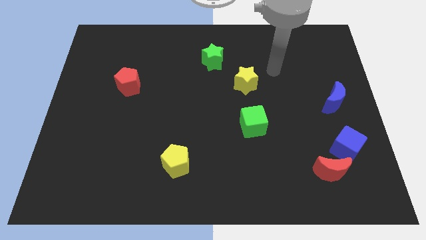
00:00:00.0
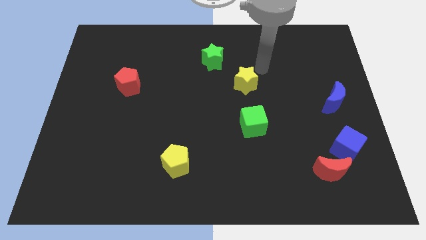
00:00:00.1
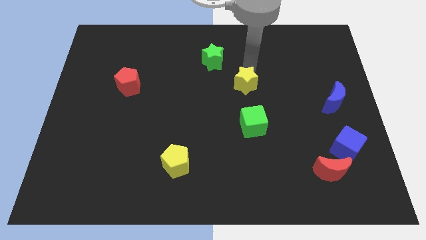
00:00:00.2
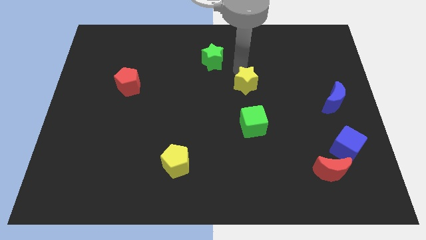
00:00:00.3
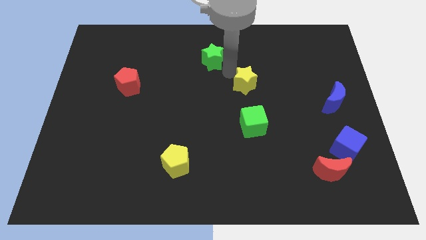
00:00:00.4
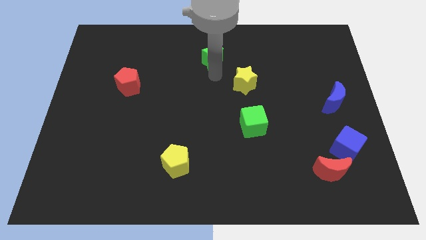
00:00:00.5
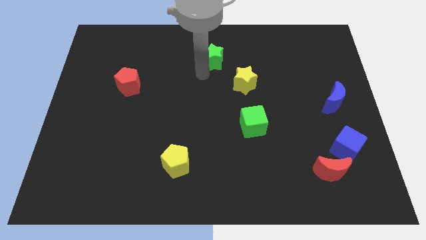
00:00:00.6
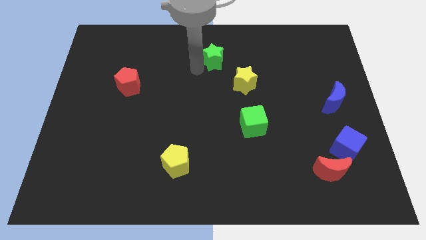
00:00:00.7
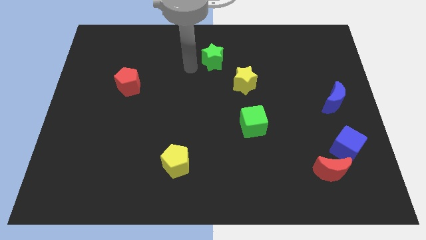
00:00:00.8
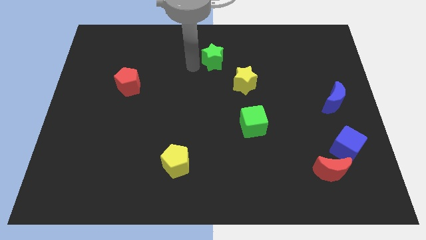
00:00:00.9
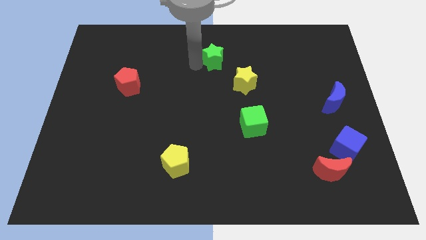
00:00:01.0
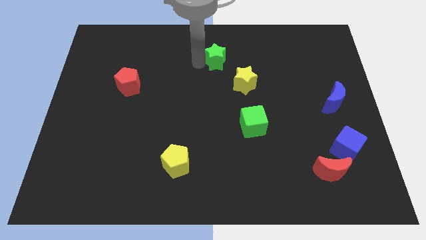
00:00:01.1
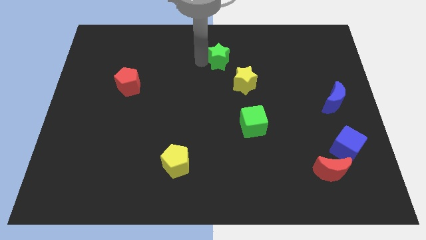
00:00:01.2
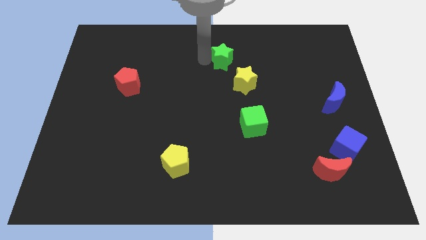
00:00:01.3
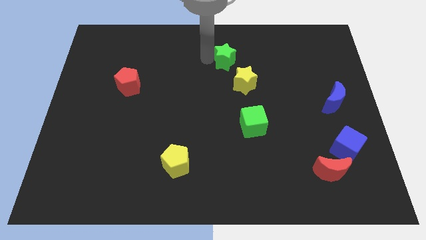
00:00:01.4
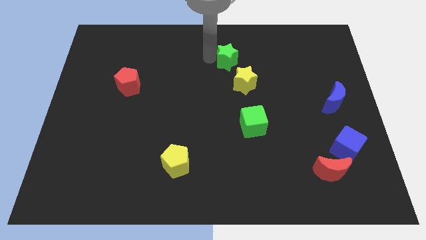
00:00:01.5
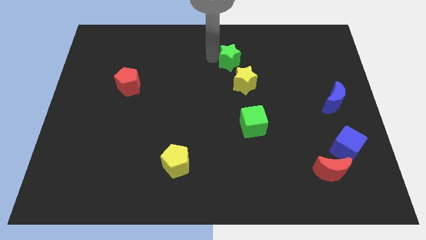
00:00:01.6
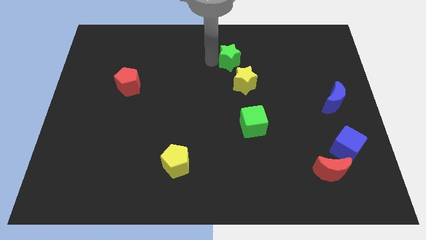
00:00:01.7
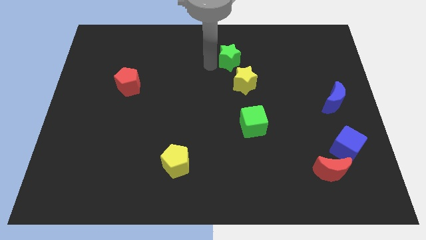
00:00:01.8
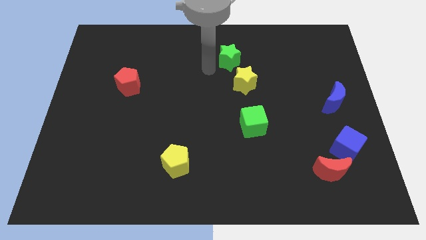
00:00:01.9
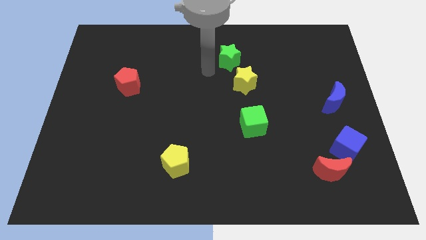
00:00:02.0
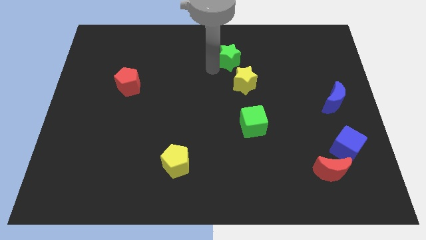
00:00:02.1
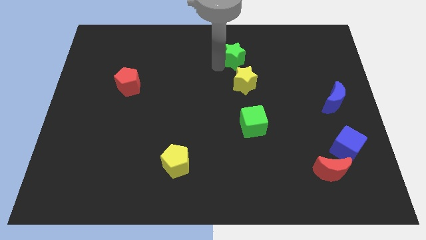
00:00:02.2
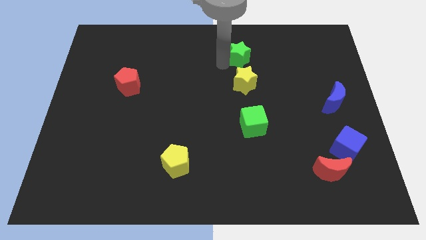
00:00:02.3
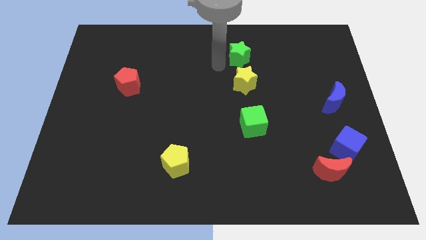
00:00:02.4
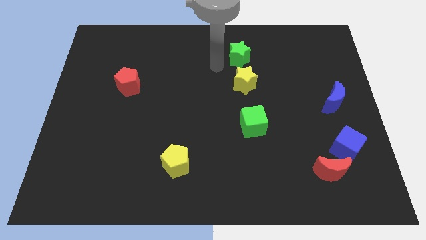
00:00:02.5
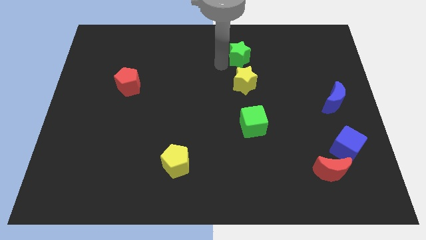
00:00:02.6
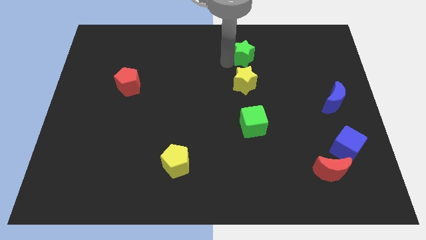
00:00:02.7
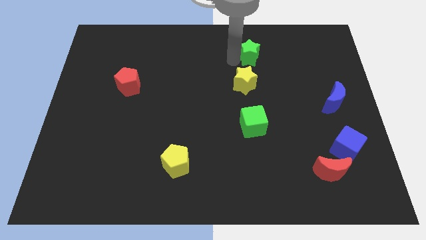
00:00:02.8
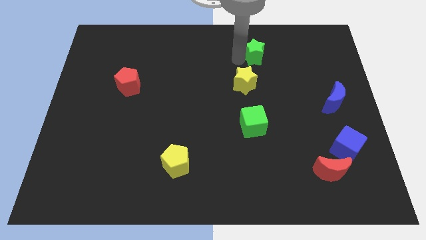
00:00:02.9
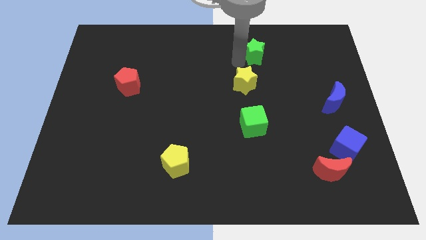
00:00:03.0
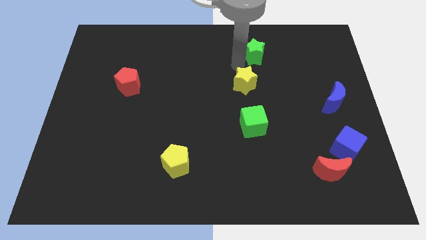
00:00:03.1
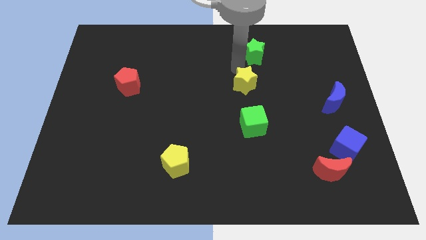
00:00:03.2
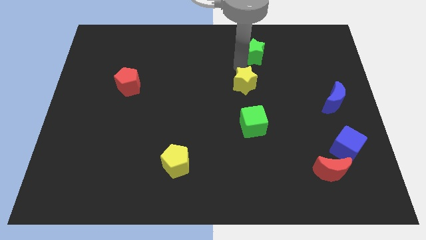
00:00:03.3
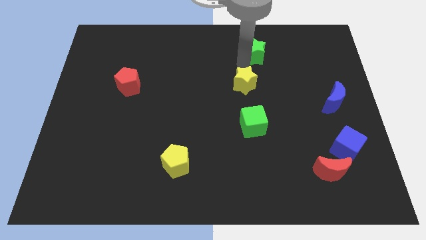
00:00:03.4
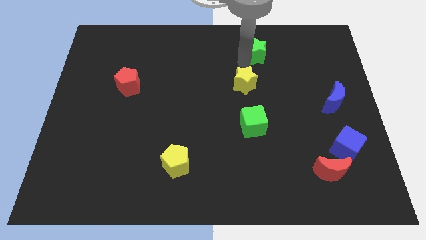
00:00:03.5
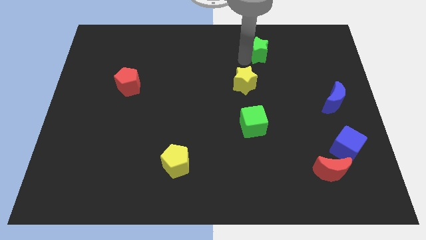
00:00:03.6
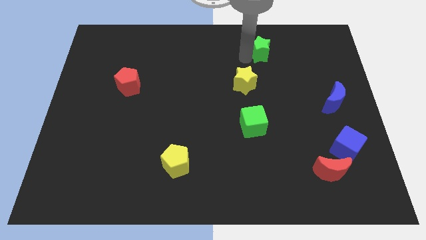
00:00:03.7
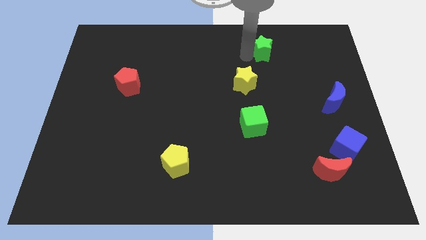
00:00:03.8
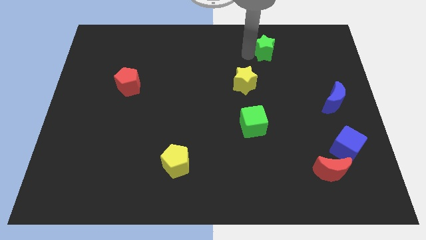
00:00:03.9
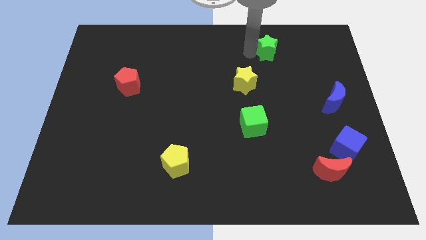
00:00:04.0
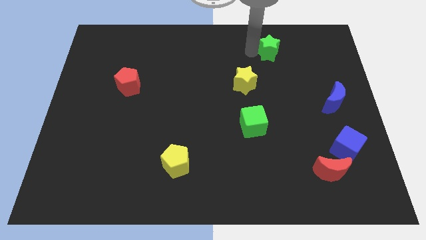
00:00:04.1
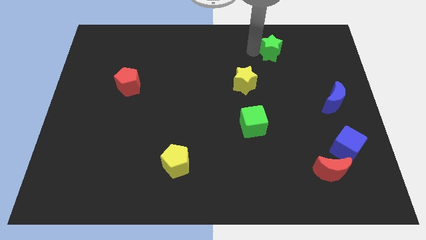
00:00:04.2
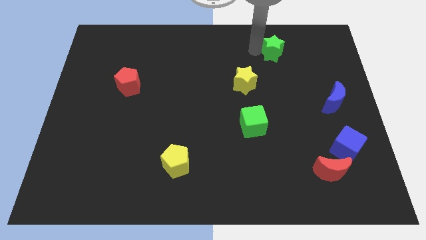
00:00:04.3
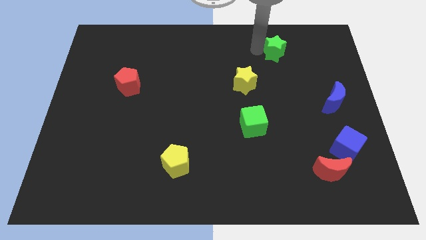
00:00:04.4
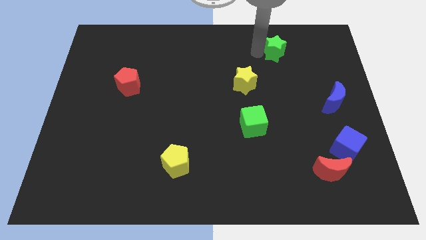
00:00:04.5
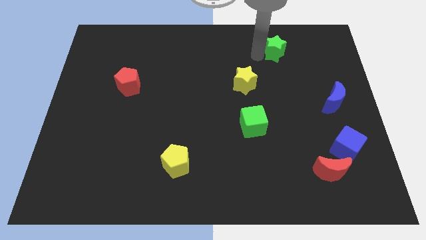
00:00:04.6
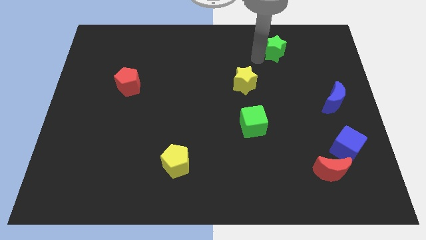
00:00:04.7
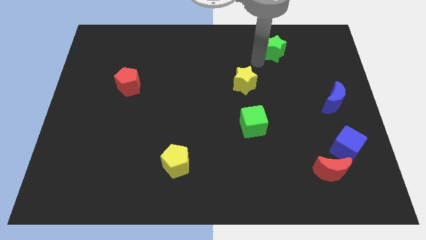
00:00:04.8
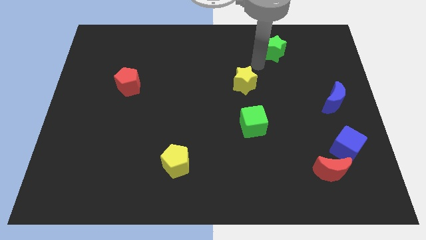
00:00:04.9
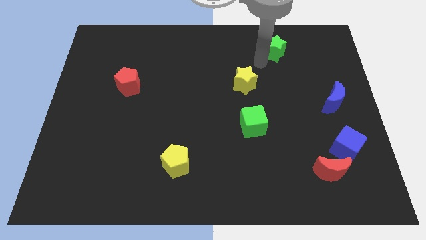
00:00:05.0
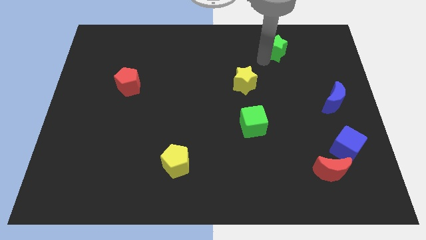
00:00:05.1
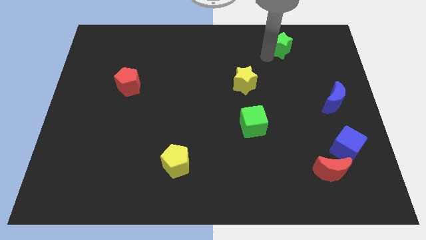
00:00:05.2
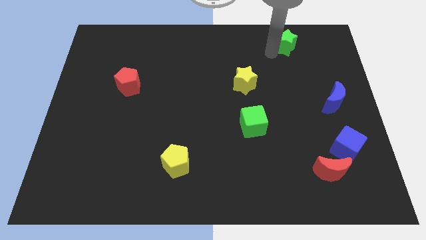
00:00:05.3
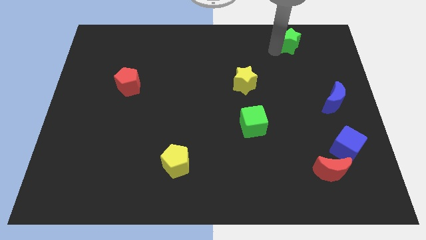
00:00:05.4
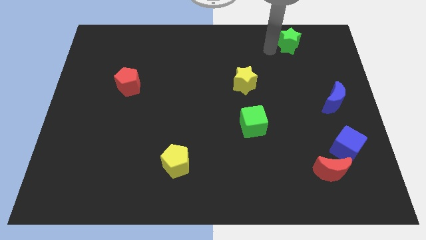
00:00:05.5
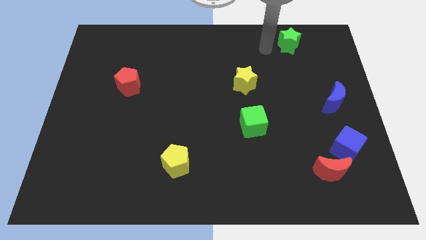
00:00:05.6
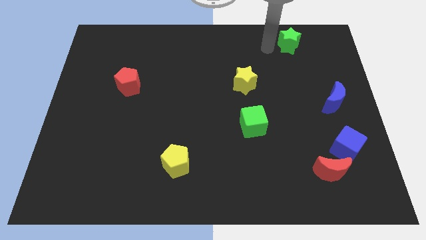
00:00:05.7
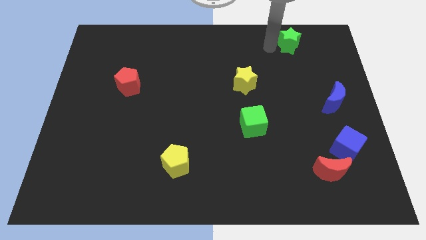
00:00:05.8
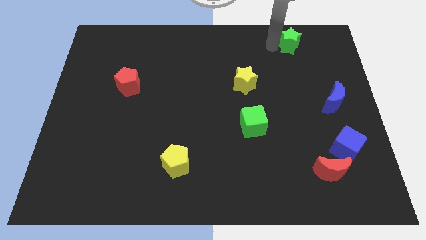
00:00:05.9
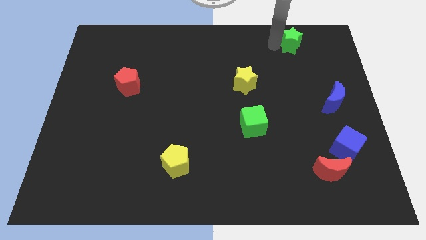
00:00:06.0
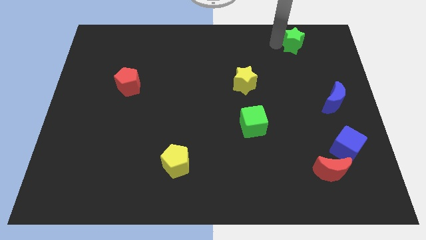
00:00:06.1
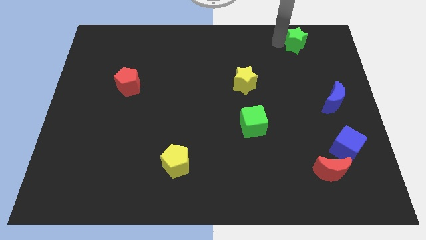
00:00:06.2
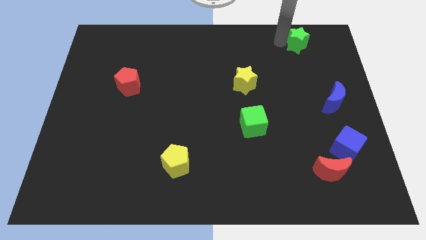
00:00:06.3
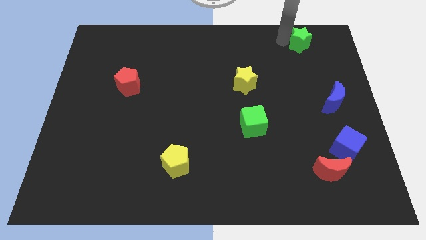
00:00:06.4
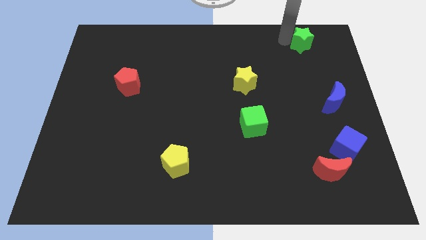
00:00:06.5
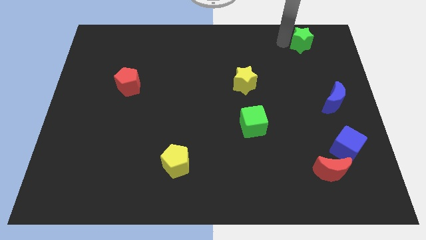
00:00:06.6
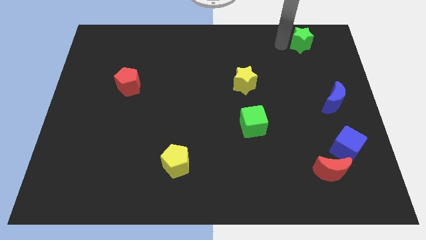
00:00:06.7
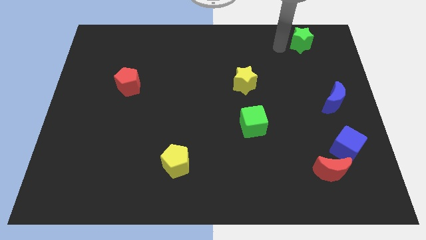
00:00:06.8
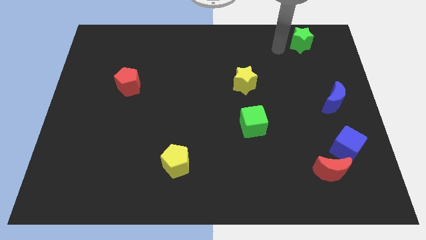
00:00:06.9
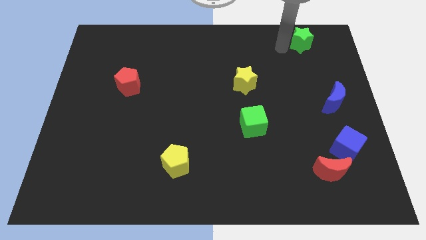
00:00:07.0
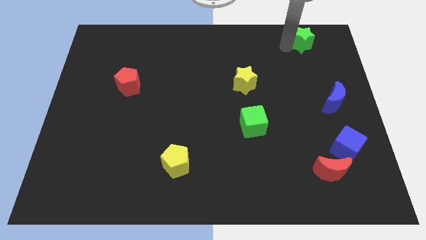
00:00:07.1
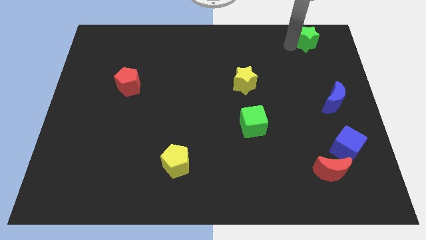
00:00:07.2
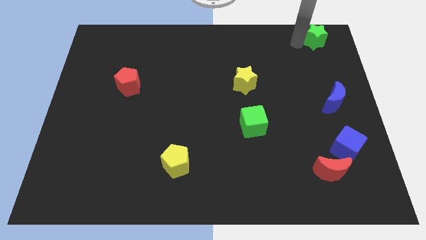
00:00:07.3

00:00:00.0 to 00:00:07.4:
slide the green star to the top right of the board
